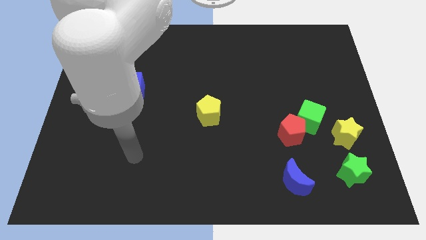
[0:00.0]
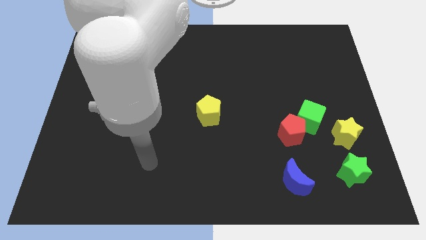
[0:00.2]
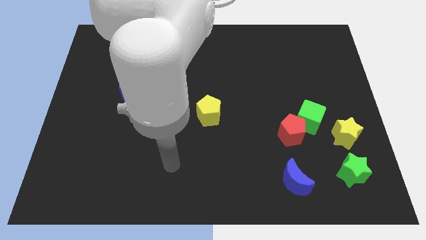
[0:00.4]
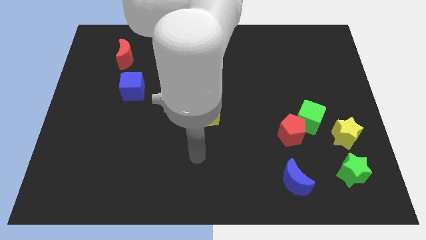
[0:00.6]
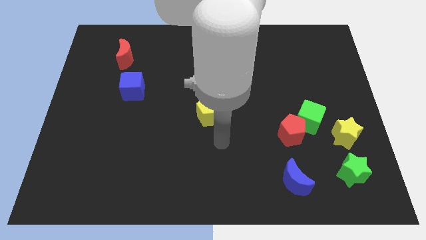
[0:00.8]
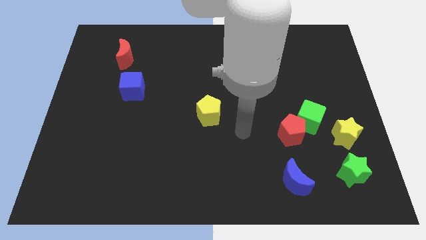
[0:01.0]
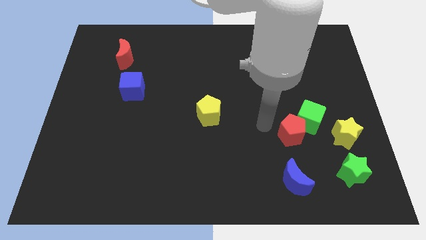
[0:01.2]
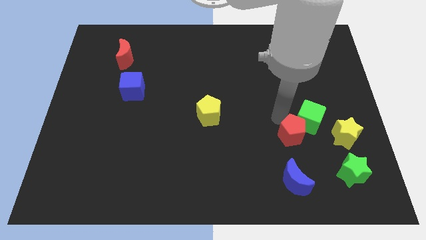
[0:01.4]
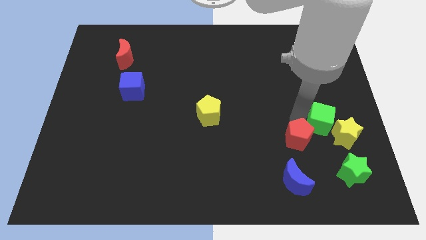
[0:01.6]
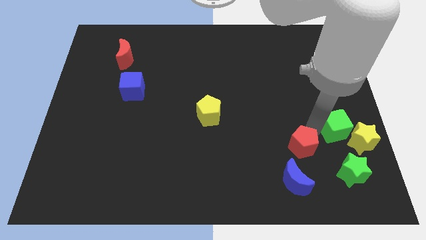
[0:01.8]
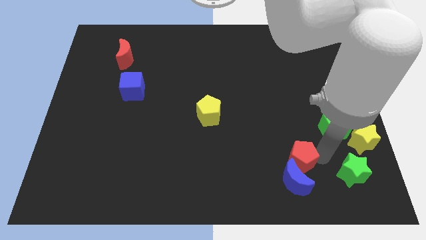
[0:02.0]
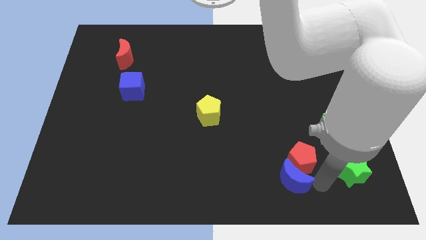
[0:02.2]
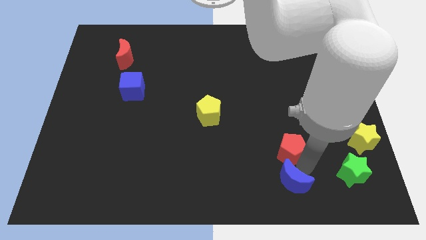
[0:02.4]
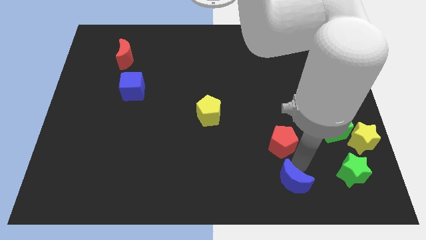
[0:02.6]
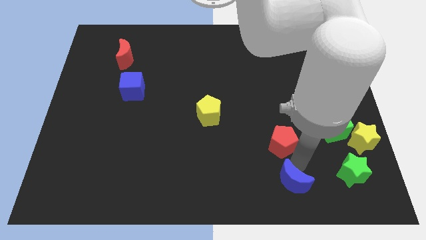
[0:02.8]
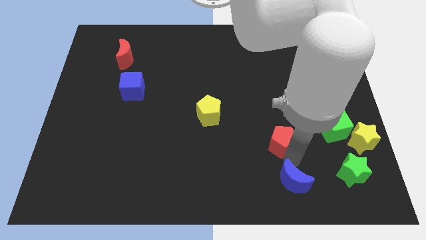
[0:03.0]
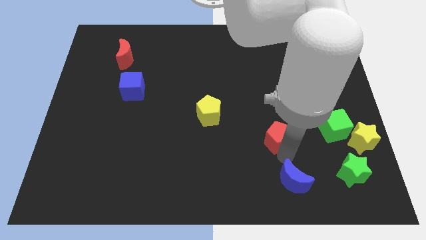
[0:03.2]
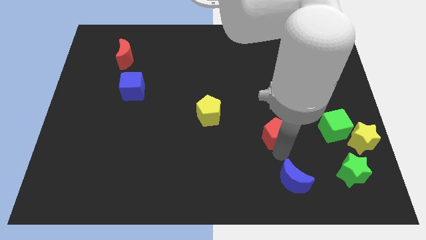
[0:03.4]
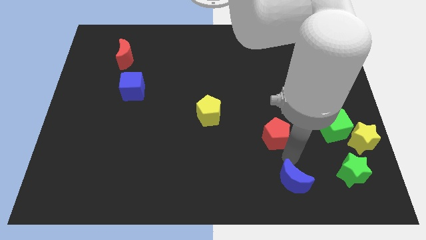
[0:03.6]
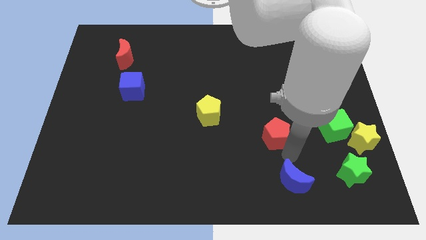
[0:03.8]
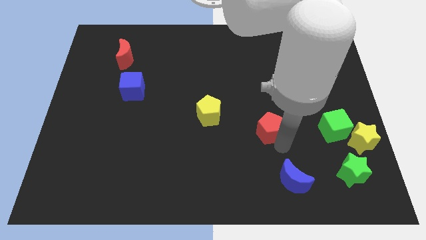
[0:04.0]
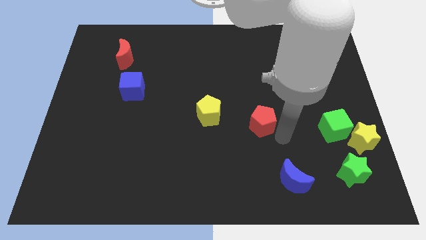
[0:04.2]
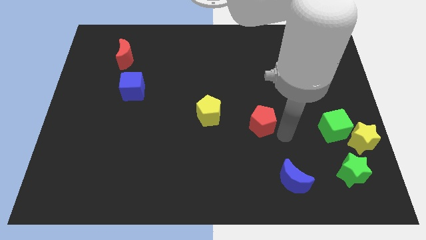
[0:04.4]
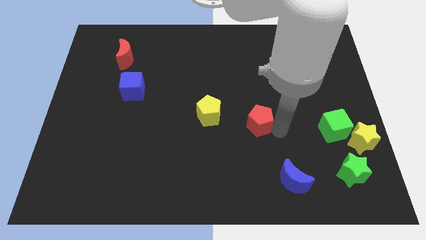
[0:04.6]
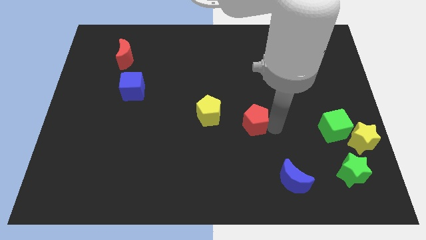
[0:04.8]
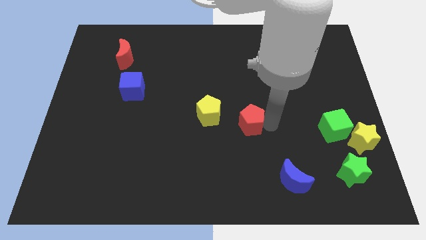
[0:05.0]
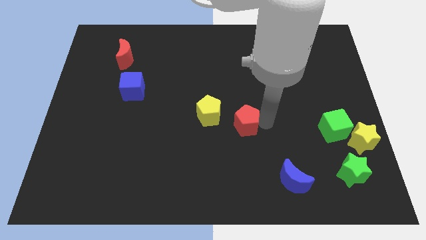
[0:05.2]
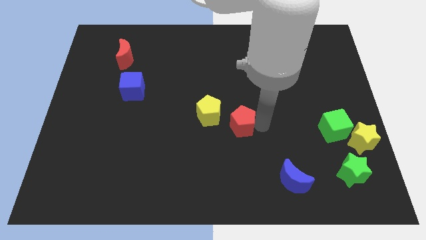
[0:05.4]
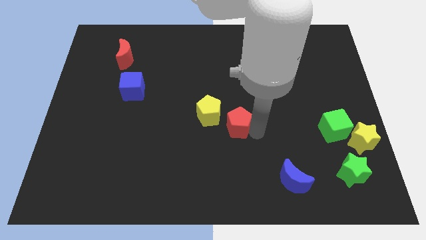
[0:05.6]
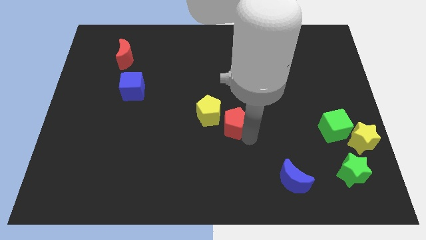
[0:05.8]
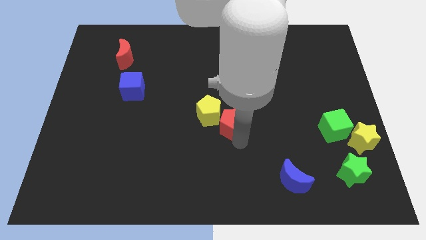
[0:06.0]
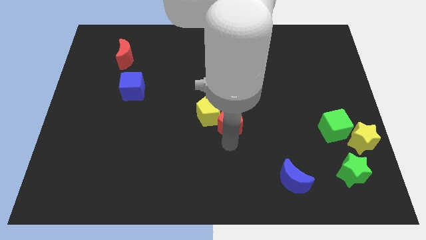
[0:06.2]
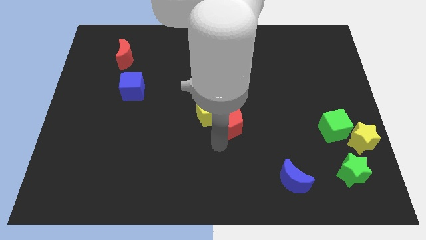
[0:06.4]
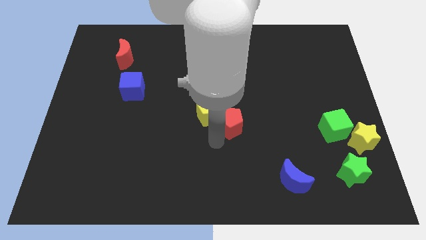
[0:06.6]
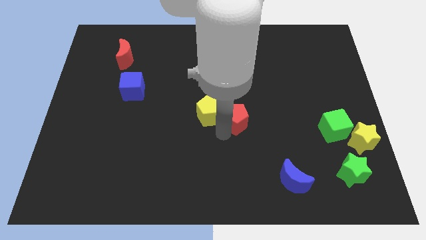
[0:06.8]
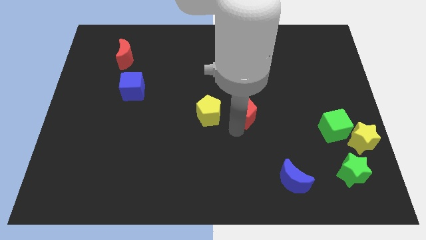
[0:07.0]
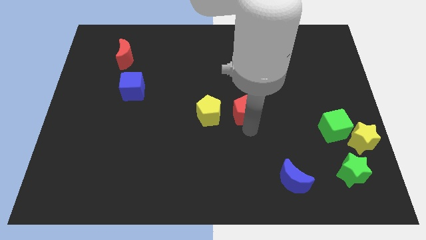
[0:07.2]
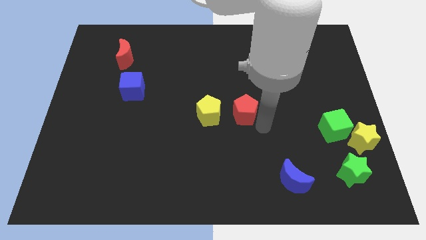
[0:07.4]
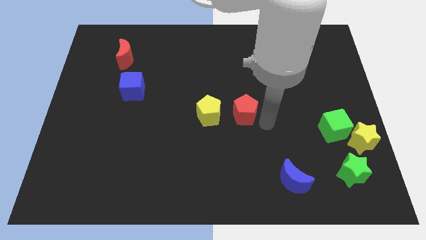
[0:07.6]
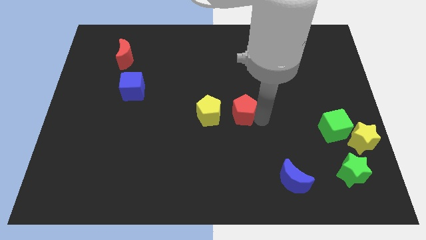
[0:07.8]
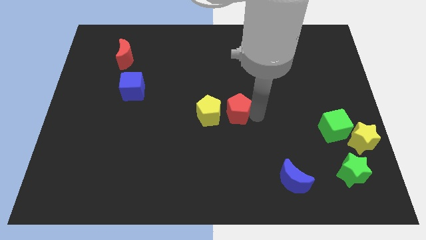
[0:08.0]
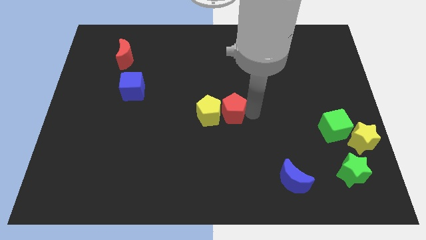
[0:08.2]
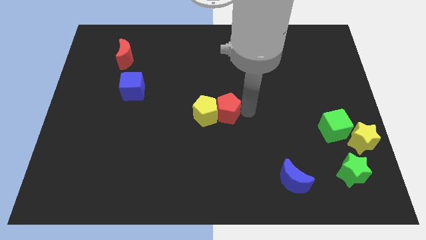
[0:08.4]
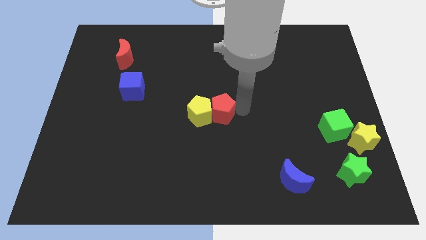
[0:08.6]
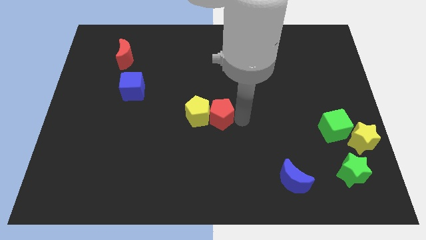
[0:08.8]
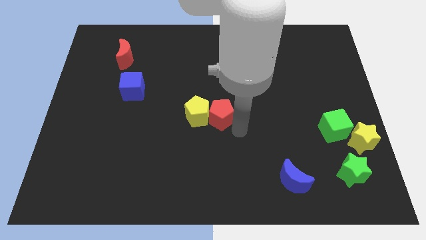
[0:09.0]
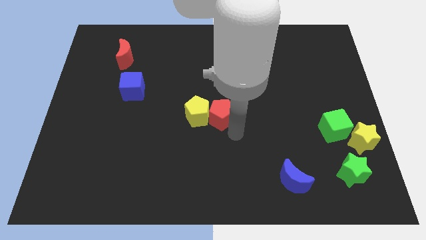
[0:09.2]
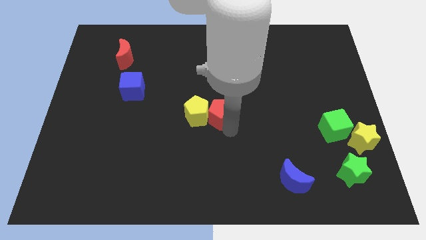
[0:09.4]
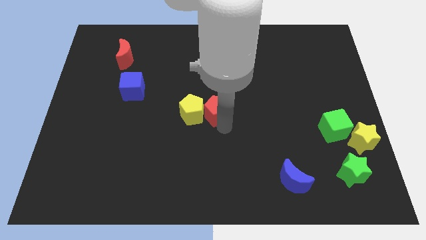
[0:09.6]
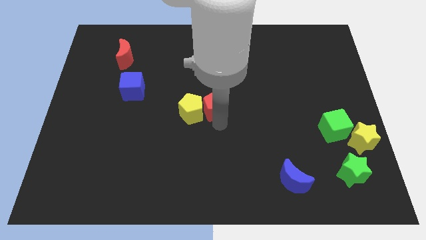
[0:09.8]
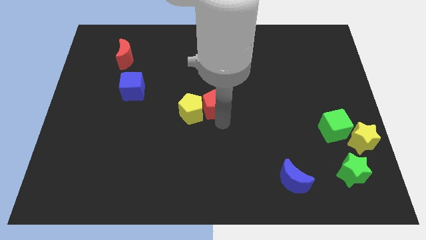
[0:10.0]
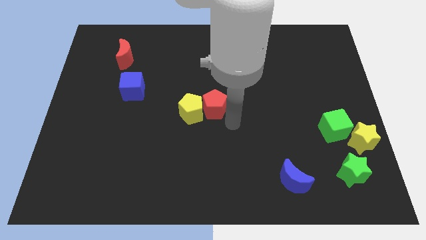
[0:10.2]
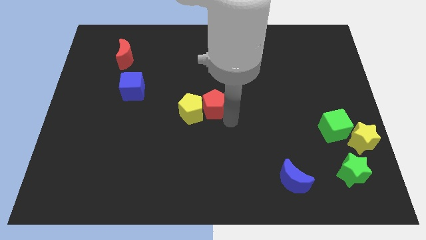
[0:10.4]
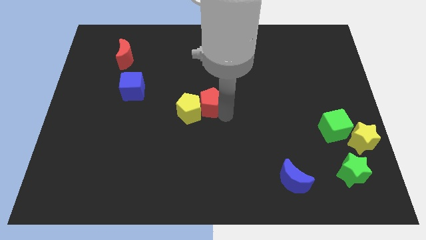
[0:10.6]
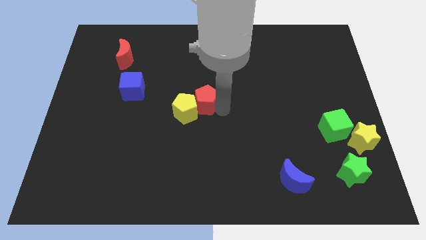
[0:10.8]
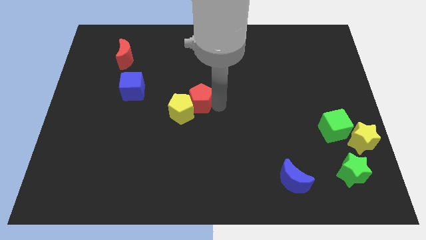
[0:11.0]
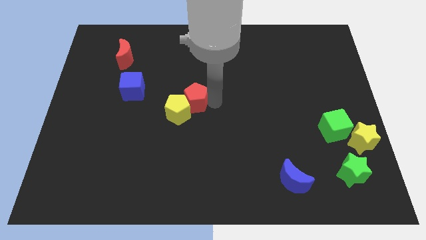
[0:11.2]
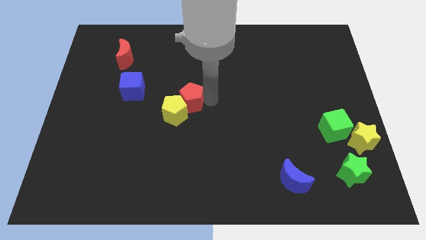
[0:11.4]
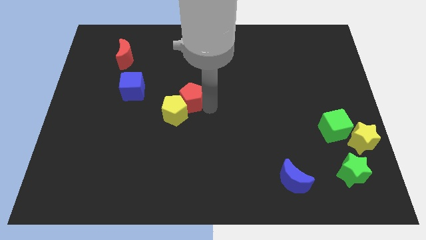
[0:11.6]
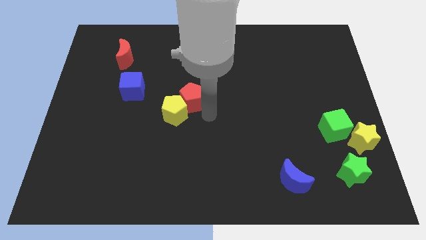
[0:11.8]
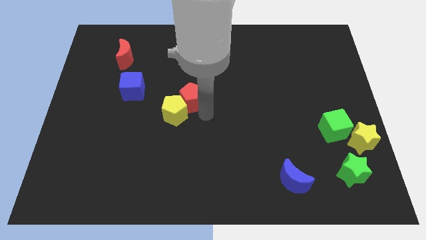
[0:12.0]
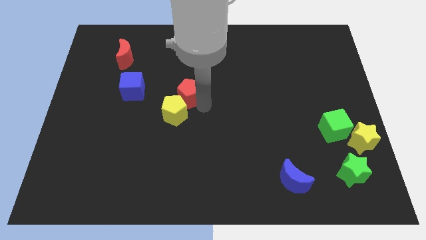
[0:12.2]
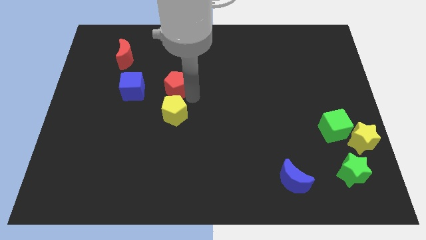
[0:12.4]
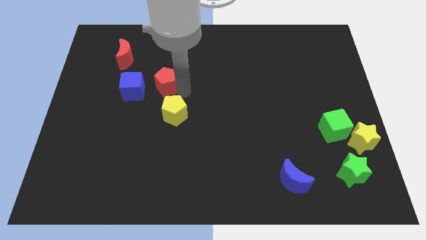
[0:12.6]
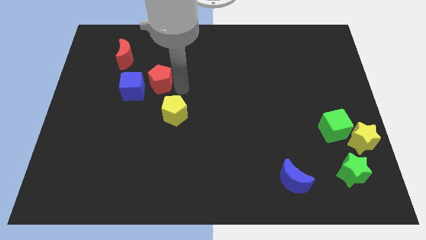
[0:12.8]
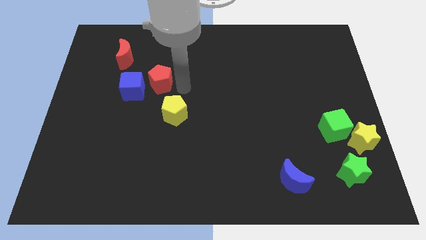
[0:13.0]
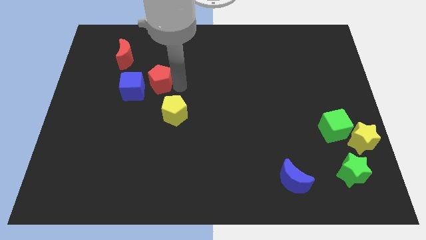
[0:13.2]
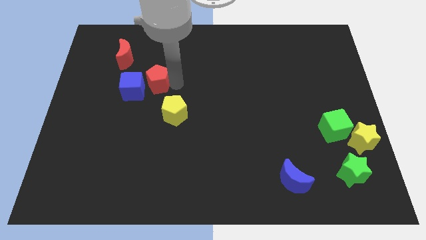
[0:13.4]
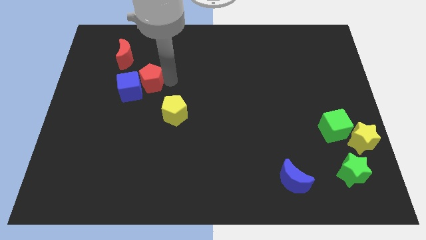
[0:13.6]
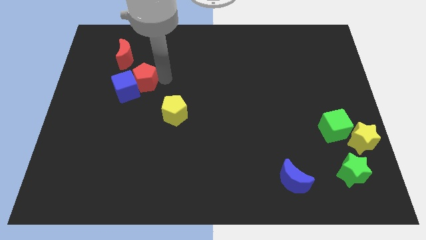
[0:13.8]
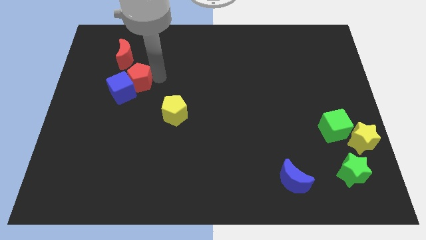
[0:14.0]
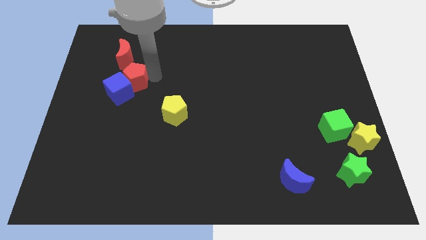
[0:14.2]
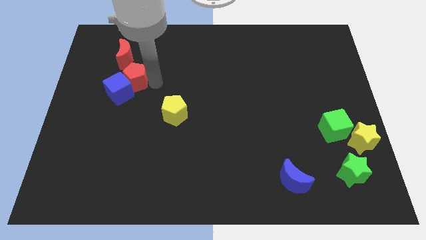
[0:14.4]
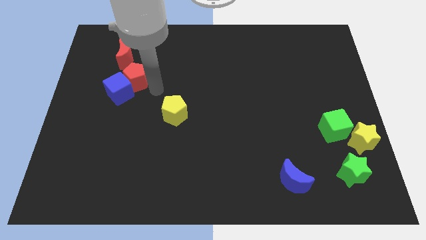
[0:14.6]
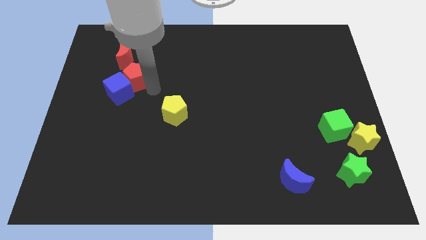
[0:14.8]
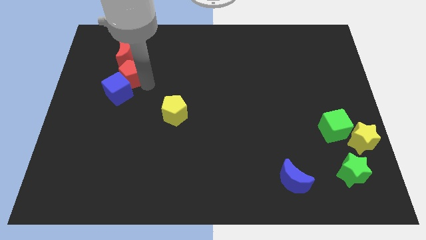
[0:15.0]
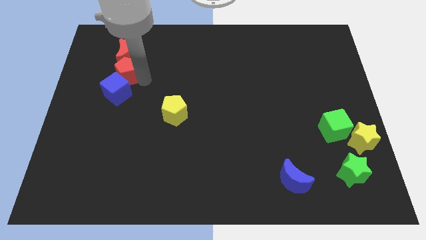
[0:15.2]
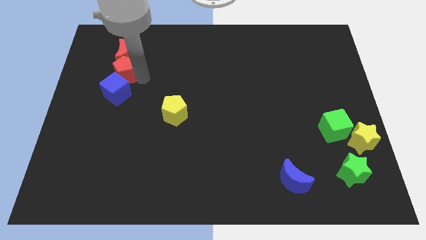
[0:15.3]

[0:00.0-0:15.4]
push the red pentagon diagonally down and to the left of the red moon

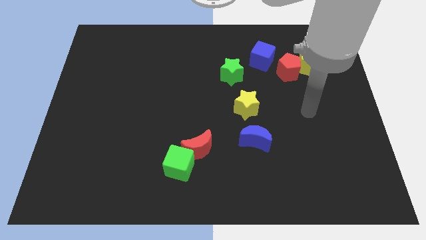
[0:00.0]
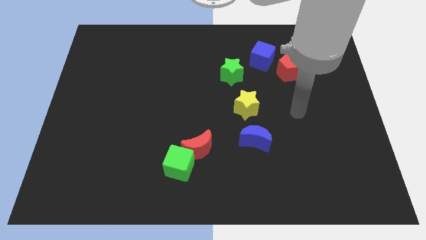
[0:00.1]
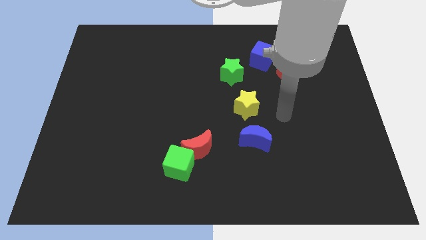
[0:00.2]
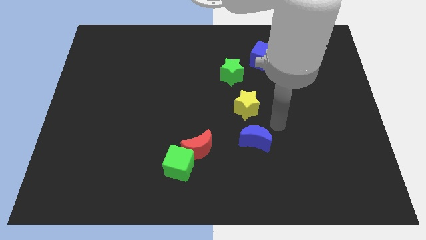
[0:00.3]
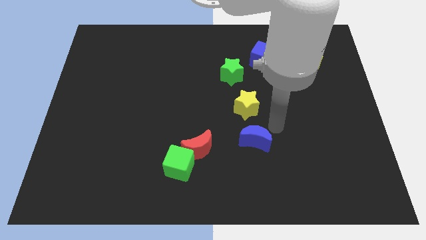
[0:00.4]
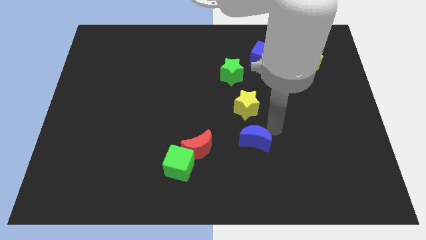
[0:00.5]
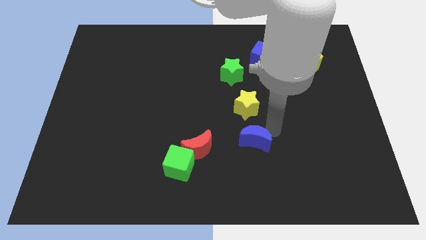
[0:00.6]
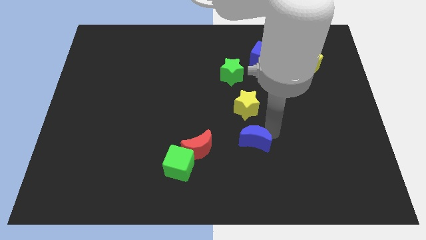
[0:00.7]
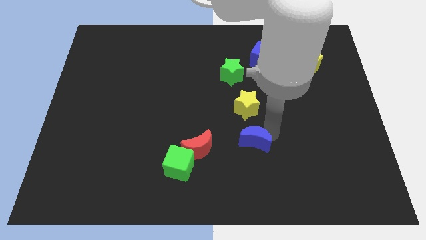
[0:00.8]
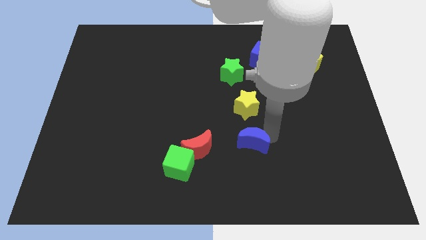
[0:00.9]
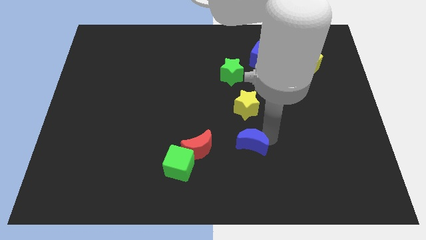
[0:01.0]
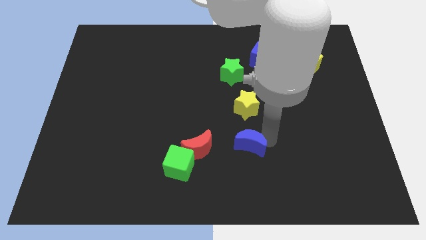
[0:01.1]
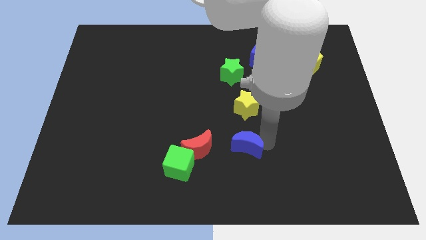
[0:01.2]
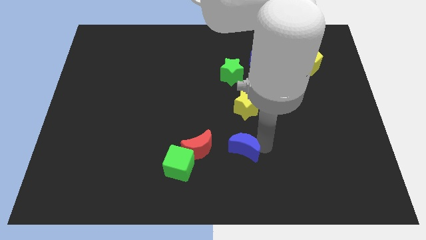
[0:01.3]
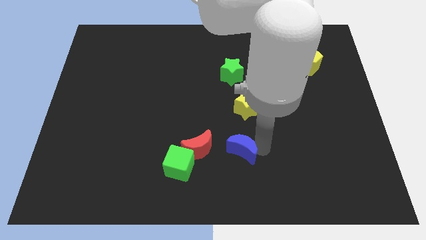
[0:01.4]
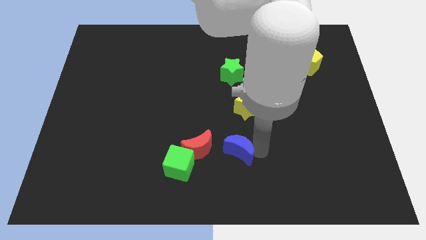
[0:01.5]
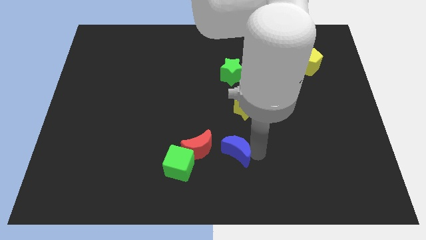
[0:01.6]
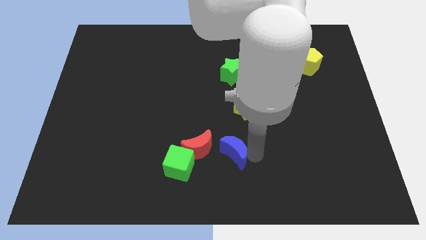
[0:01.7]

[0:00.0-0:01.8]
push the blue moon to the bottom right side of the red moon
